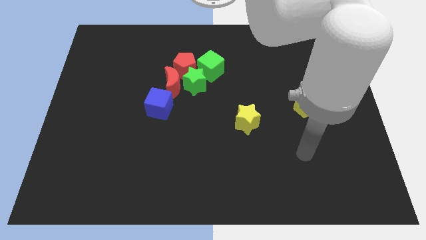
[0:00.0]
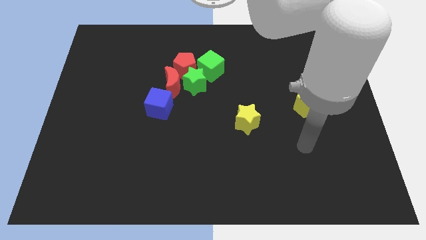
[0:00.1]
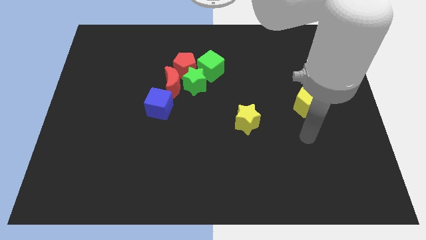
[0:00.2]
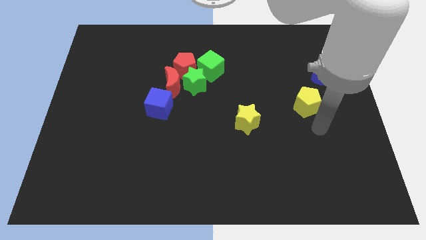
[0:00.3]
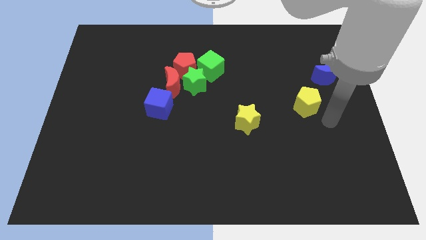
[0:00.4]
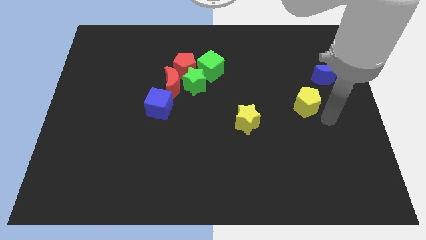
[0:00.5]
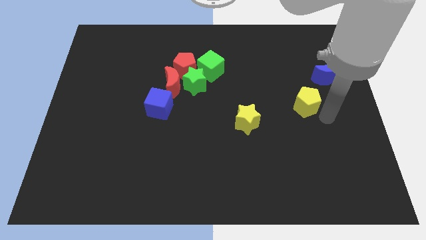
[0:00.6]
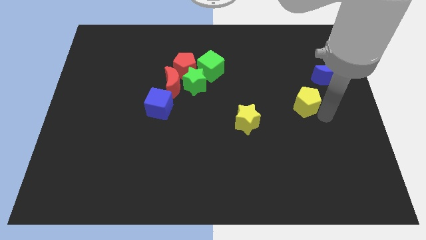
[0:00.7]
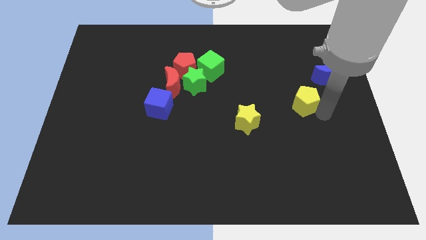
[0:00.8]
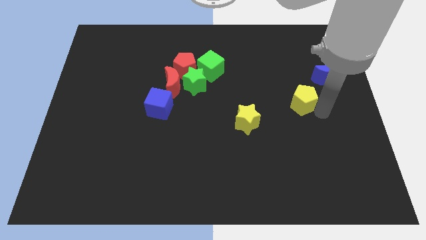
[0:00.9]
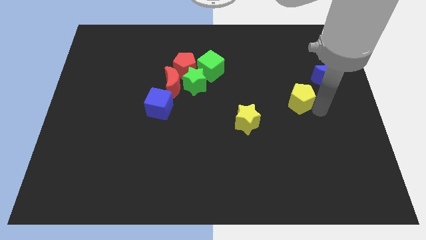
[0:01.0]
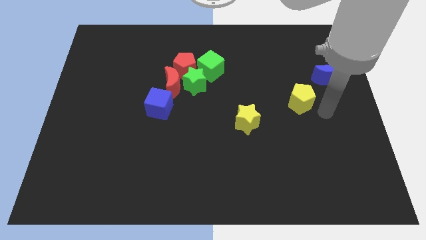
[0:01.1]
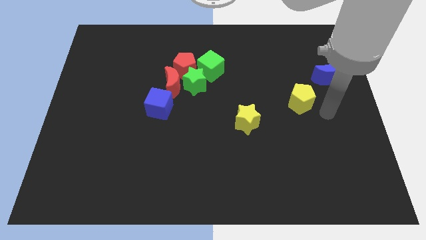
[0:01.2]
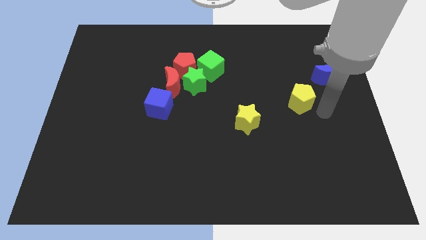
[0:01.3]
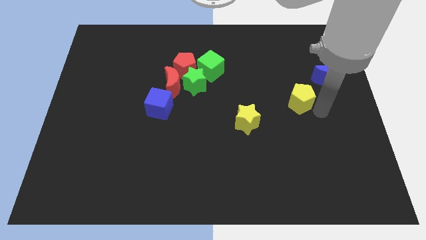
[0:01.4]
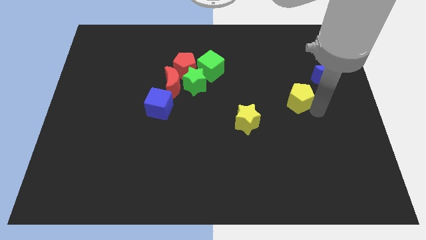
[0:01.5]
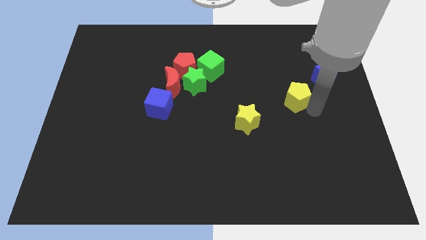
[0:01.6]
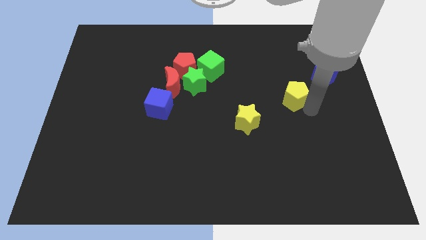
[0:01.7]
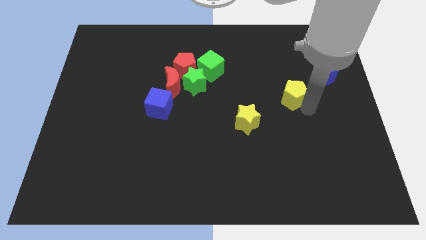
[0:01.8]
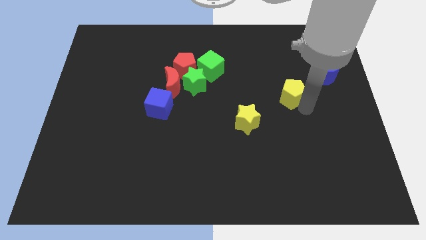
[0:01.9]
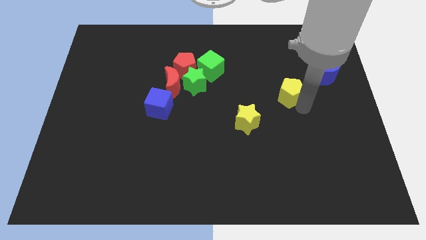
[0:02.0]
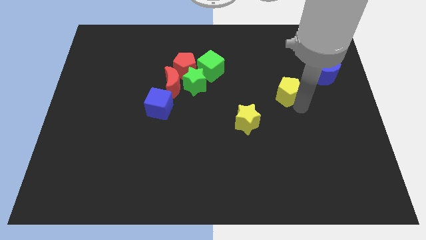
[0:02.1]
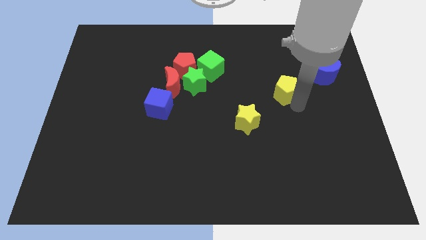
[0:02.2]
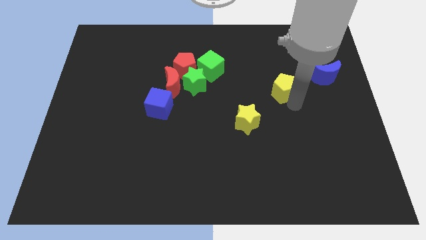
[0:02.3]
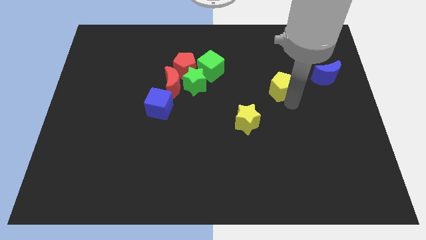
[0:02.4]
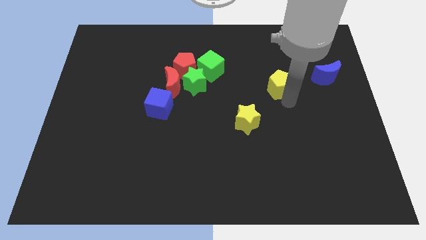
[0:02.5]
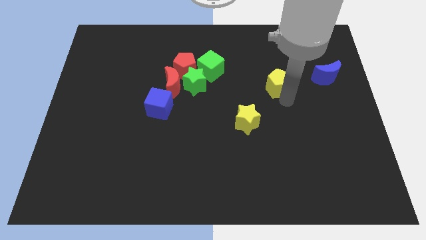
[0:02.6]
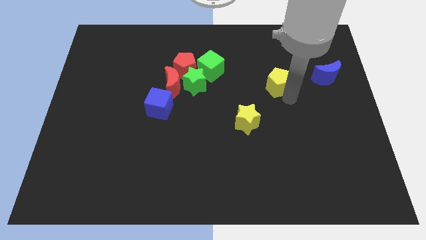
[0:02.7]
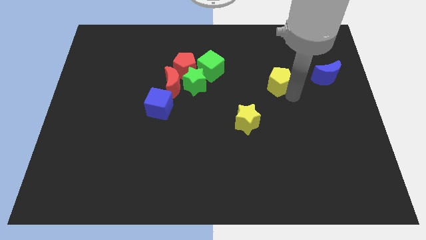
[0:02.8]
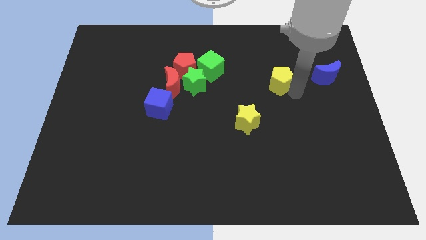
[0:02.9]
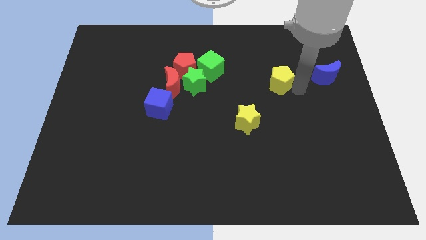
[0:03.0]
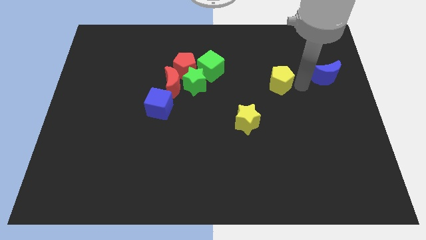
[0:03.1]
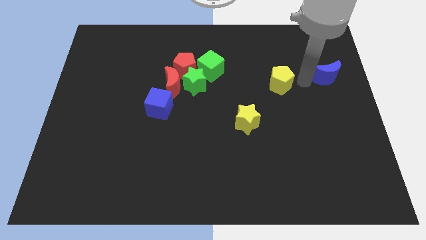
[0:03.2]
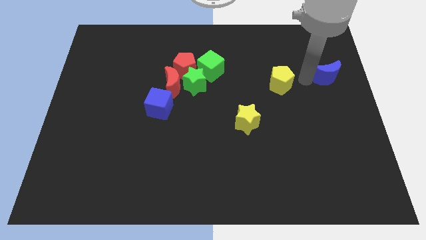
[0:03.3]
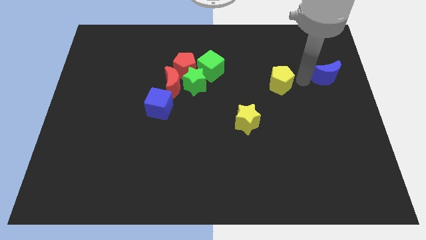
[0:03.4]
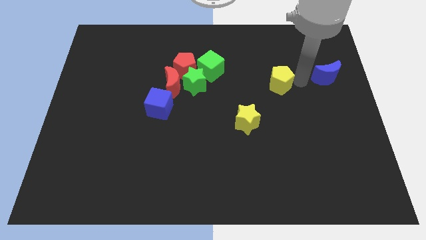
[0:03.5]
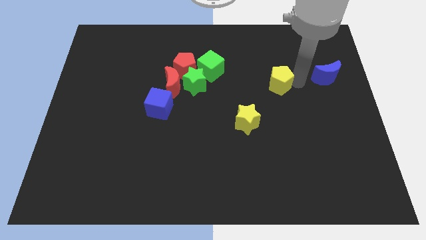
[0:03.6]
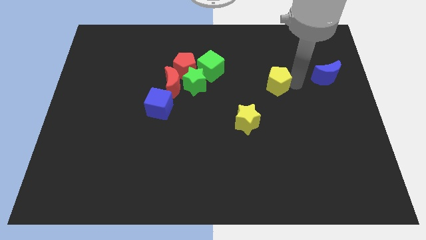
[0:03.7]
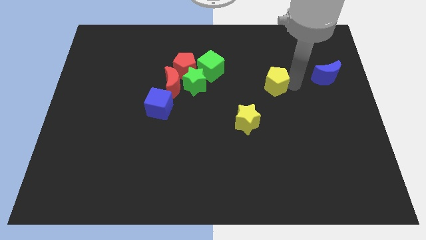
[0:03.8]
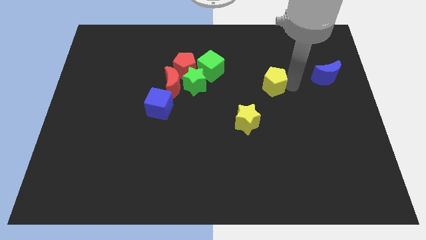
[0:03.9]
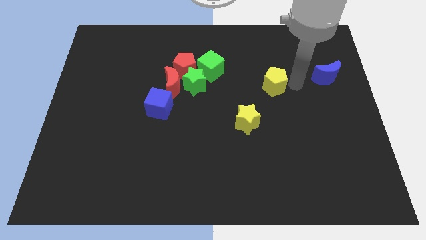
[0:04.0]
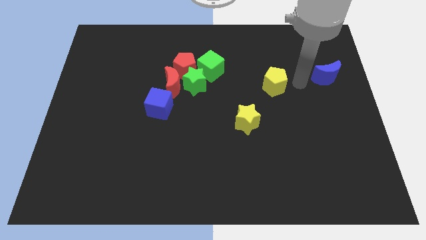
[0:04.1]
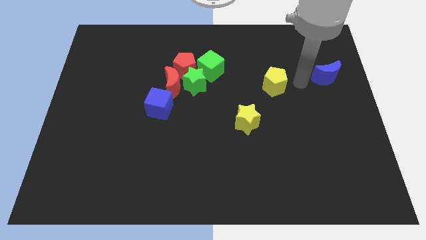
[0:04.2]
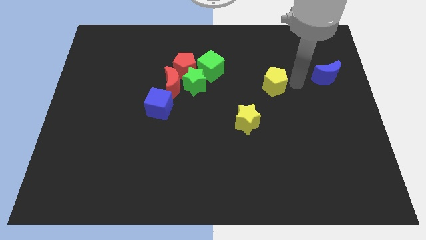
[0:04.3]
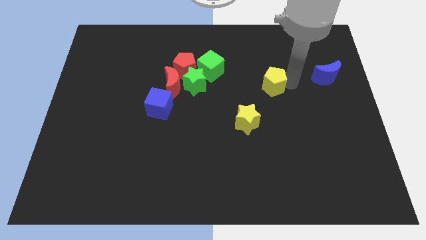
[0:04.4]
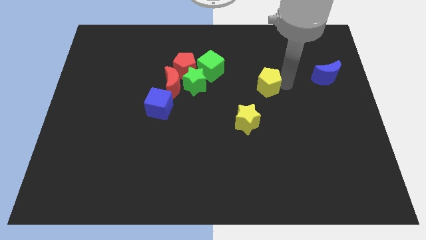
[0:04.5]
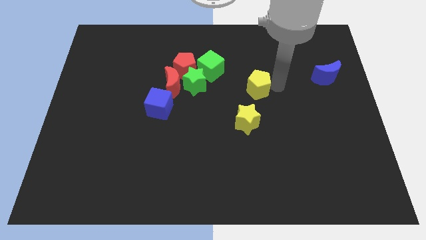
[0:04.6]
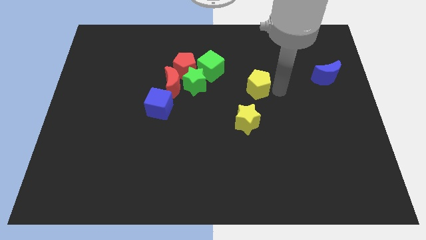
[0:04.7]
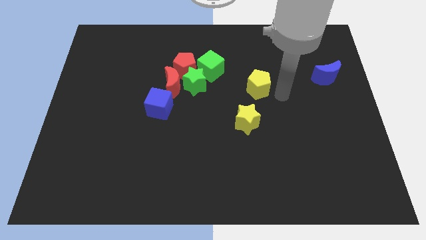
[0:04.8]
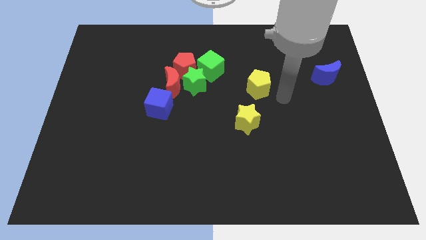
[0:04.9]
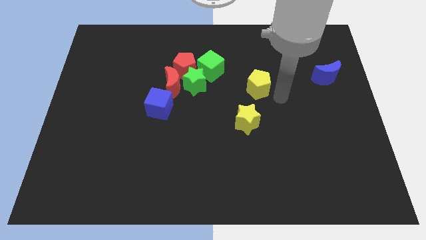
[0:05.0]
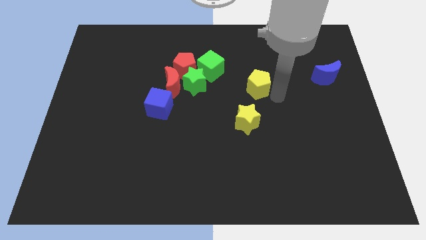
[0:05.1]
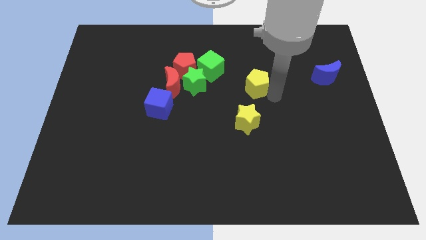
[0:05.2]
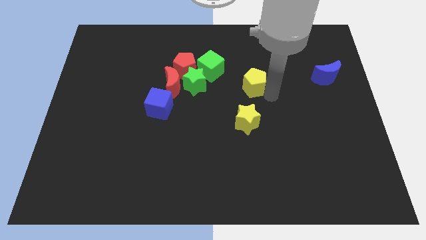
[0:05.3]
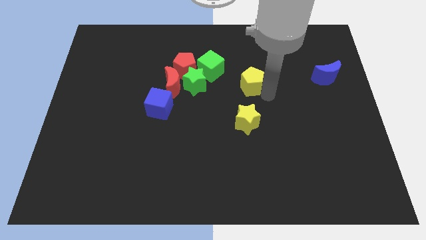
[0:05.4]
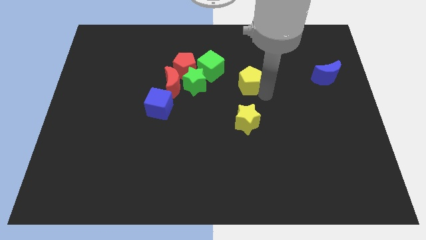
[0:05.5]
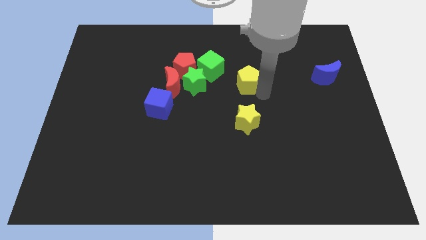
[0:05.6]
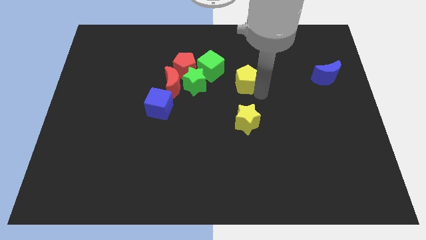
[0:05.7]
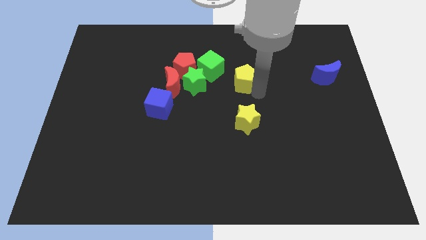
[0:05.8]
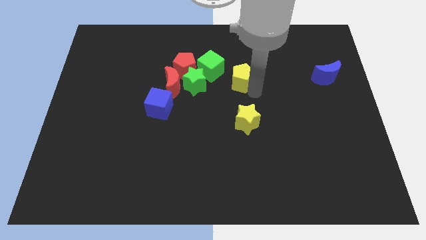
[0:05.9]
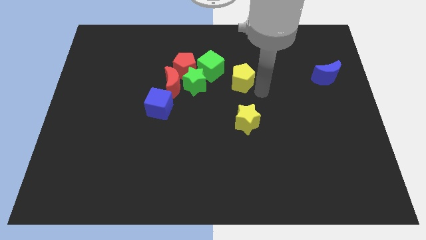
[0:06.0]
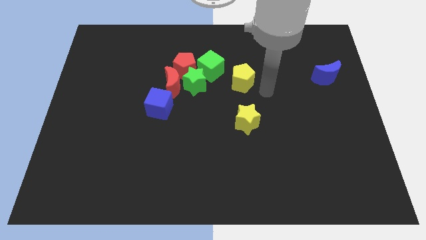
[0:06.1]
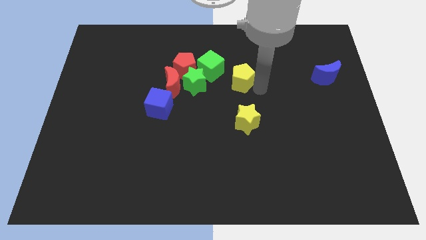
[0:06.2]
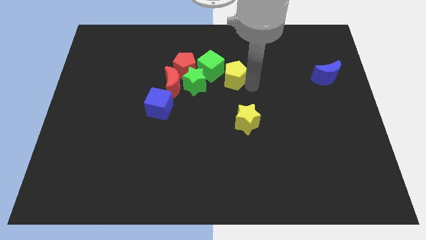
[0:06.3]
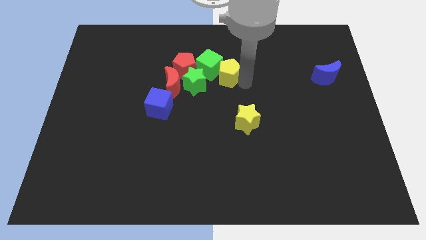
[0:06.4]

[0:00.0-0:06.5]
move the yellow pentagon next to the green cube

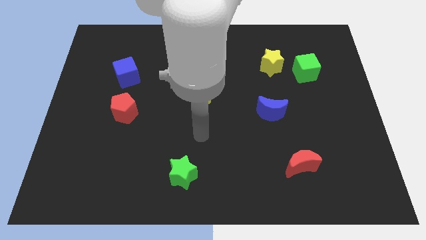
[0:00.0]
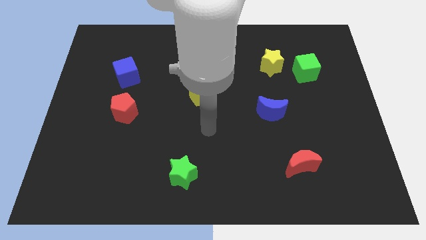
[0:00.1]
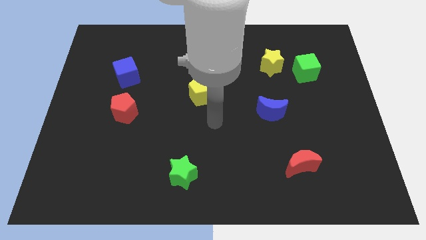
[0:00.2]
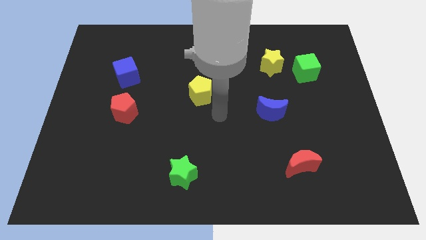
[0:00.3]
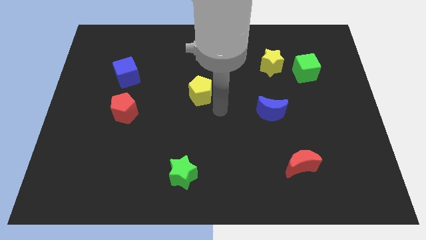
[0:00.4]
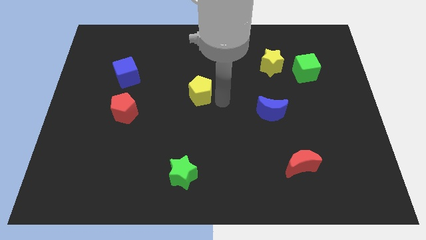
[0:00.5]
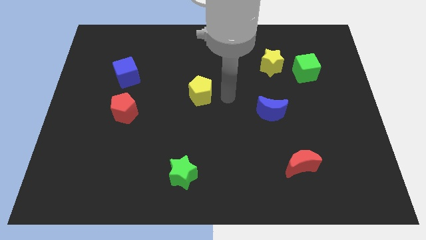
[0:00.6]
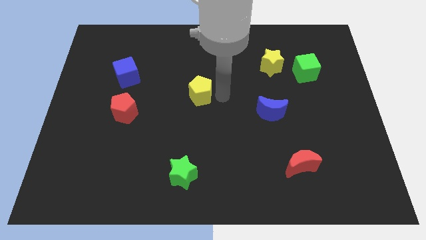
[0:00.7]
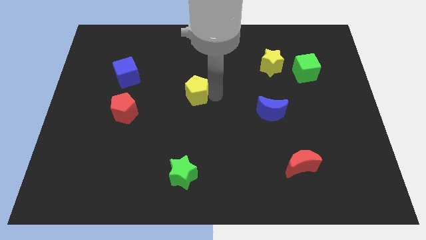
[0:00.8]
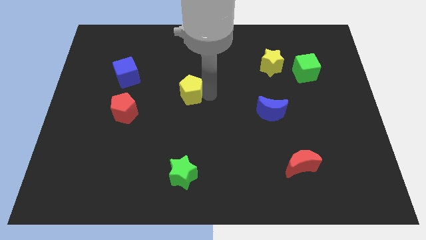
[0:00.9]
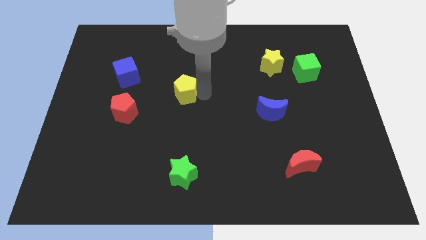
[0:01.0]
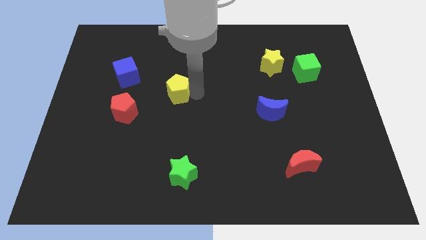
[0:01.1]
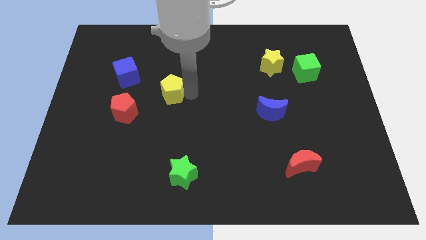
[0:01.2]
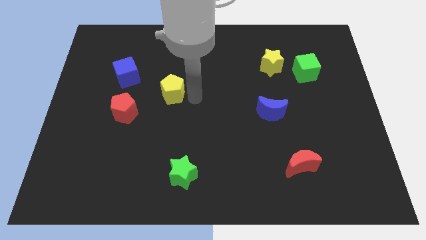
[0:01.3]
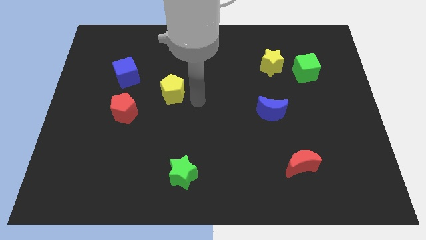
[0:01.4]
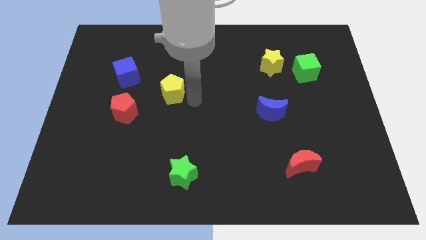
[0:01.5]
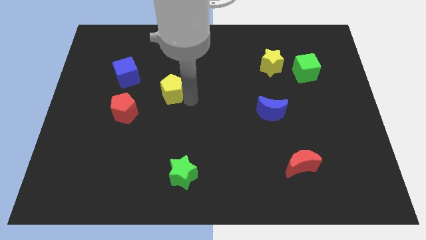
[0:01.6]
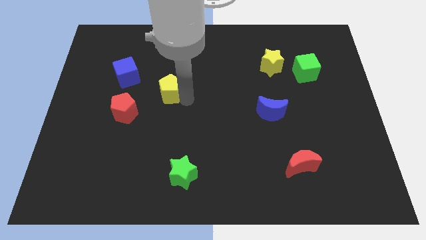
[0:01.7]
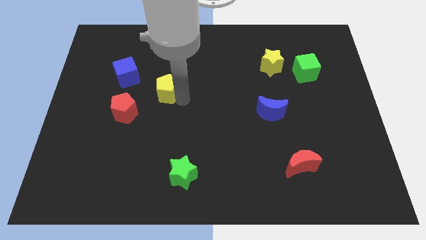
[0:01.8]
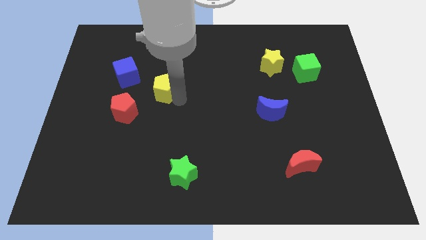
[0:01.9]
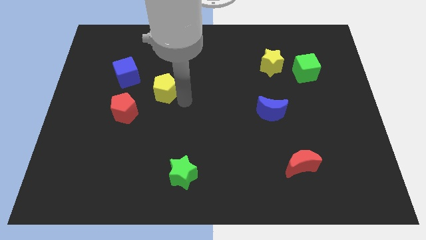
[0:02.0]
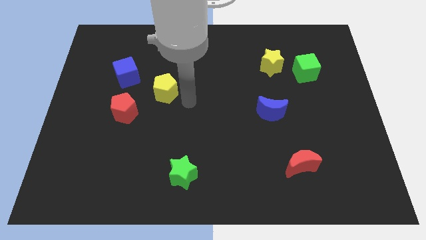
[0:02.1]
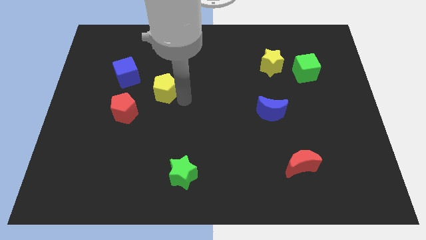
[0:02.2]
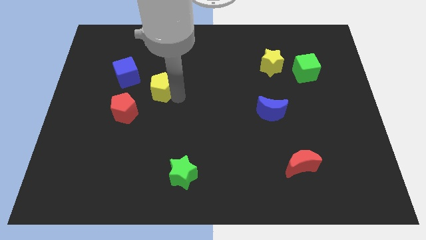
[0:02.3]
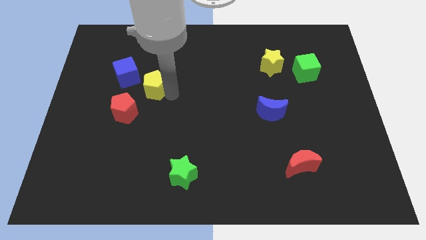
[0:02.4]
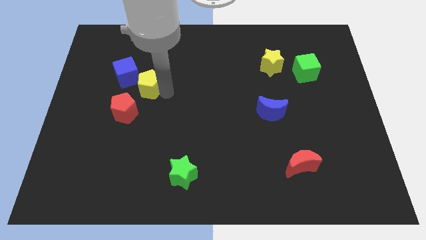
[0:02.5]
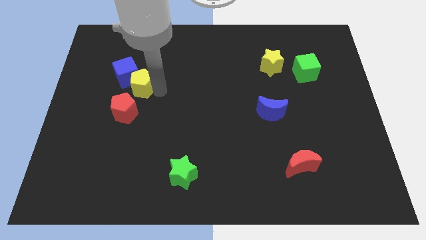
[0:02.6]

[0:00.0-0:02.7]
put the yellow pentagon next to the blue cube
